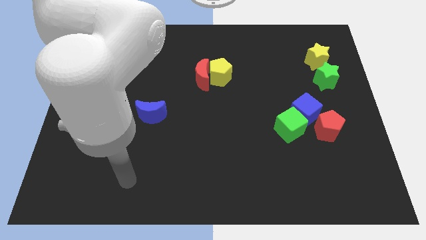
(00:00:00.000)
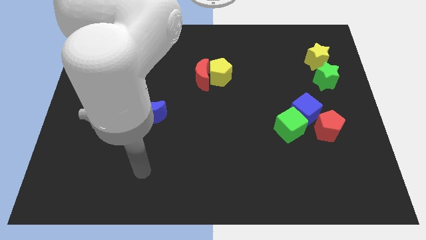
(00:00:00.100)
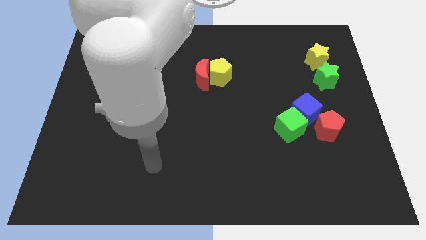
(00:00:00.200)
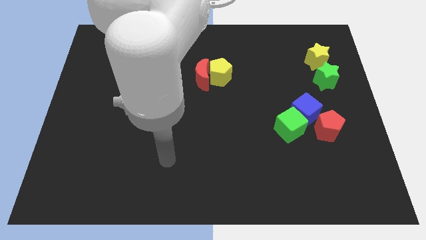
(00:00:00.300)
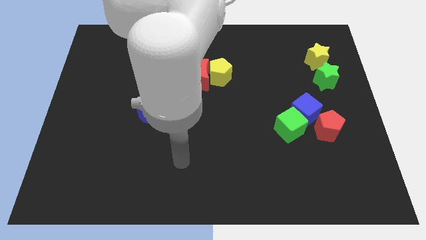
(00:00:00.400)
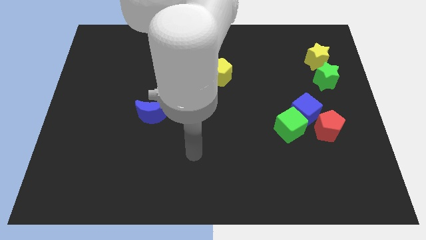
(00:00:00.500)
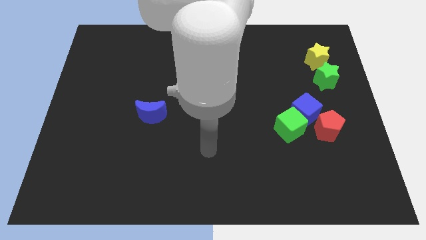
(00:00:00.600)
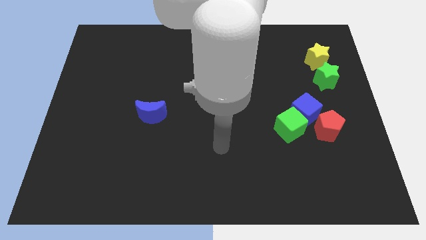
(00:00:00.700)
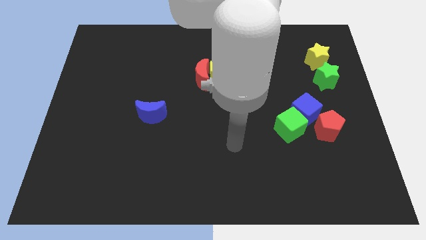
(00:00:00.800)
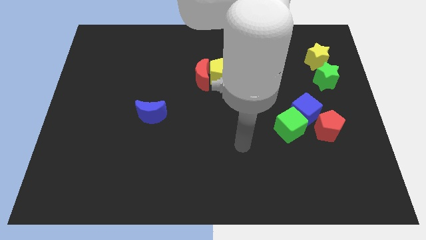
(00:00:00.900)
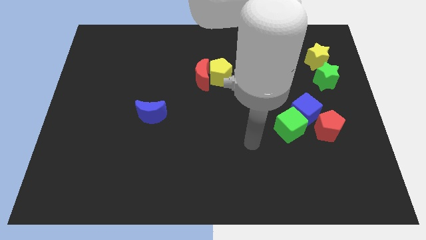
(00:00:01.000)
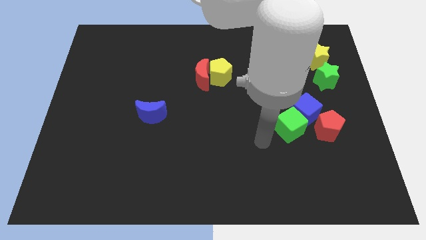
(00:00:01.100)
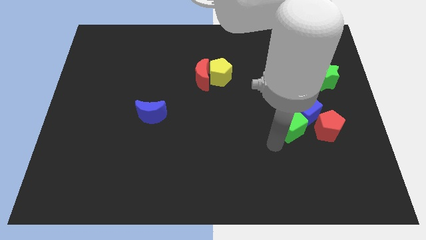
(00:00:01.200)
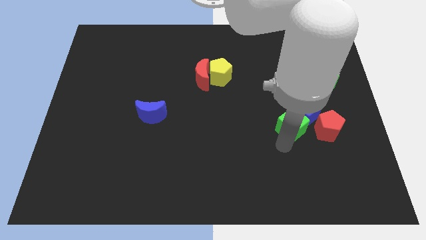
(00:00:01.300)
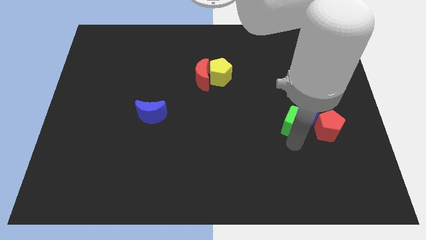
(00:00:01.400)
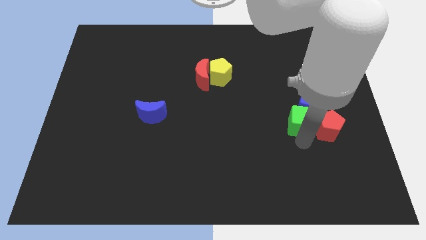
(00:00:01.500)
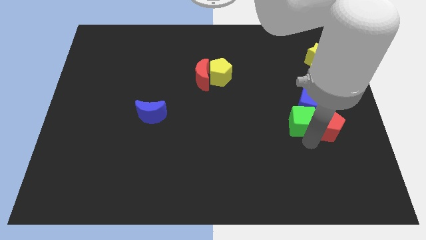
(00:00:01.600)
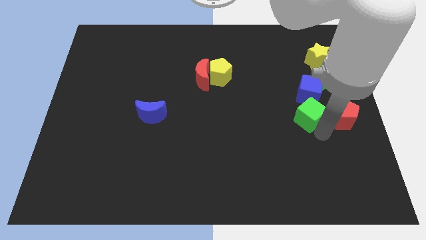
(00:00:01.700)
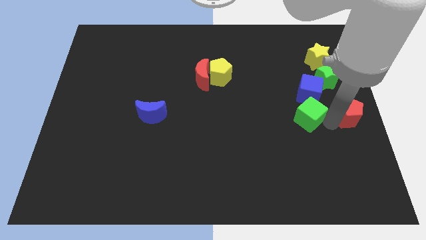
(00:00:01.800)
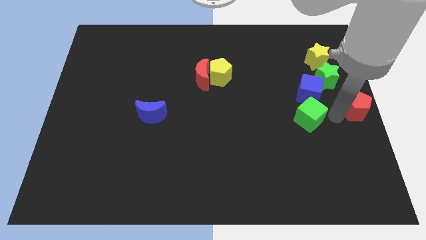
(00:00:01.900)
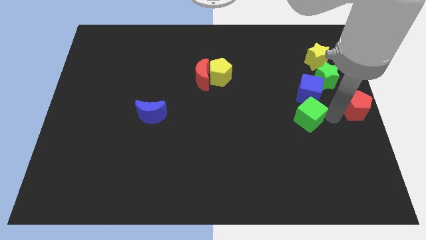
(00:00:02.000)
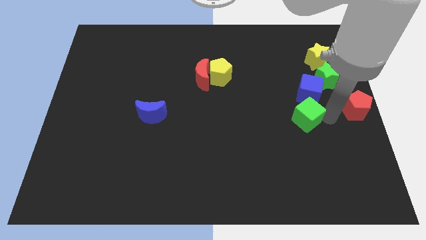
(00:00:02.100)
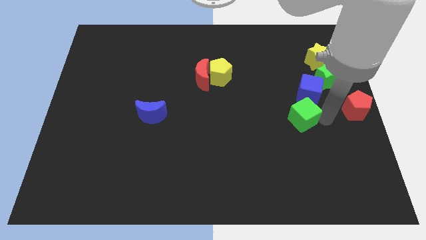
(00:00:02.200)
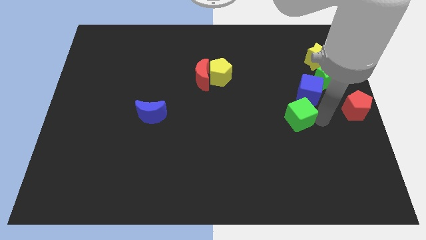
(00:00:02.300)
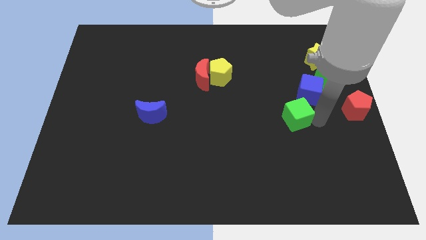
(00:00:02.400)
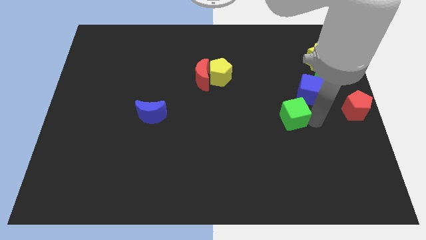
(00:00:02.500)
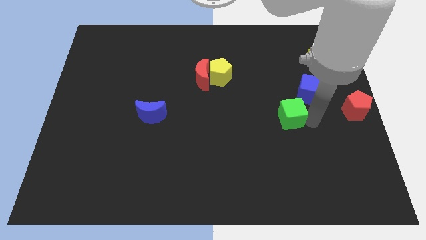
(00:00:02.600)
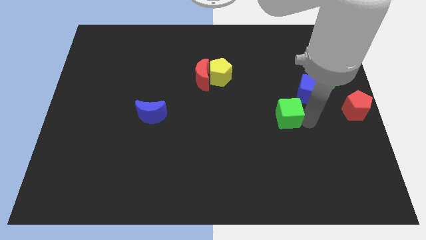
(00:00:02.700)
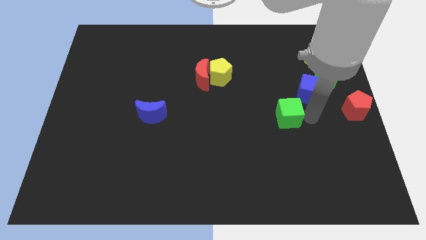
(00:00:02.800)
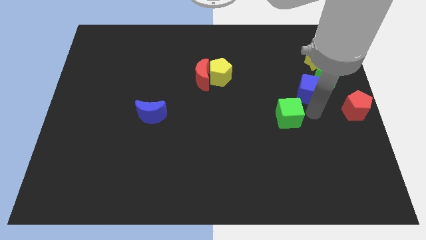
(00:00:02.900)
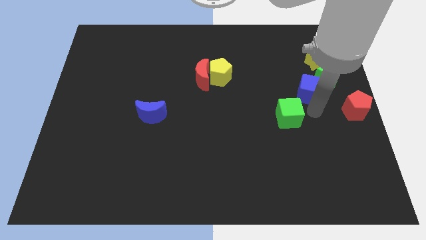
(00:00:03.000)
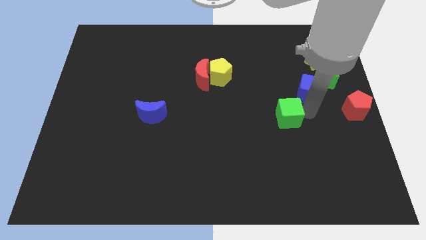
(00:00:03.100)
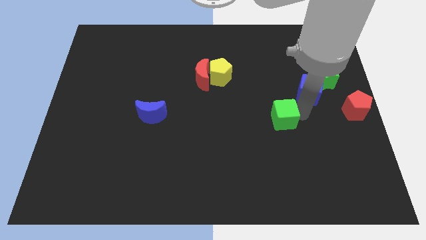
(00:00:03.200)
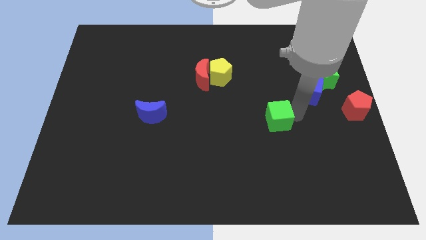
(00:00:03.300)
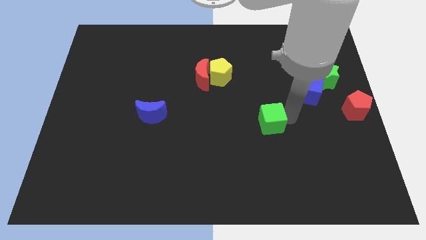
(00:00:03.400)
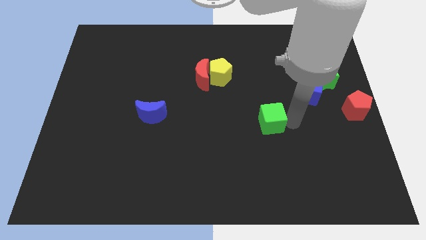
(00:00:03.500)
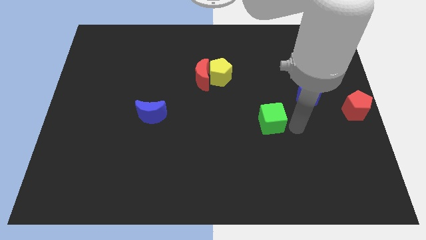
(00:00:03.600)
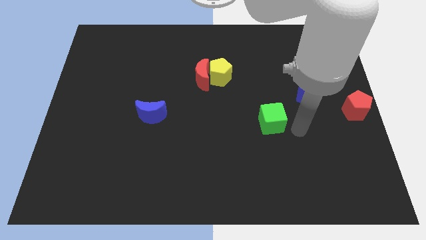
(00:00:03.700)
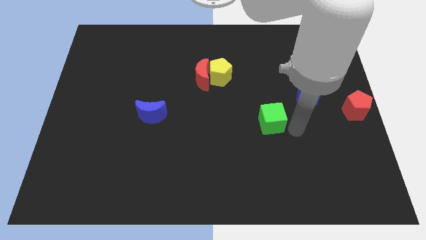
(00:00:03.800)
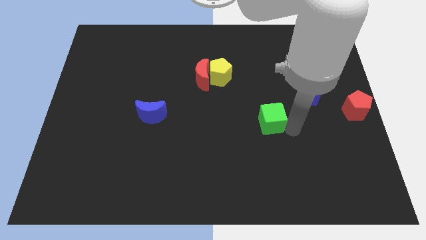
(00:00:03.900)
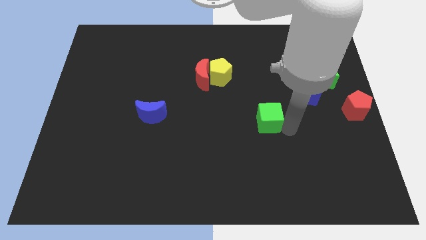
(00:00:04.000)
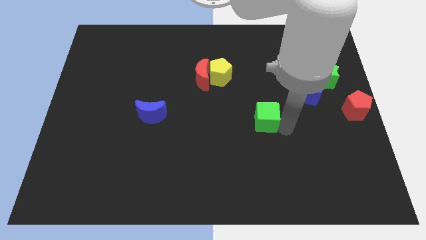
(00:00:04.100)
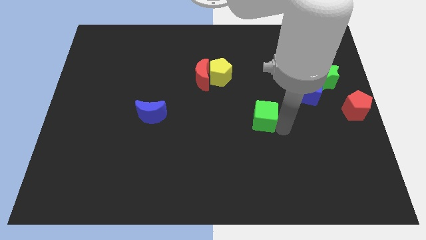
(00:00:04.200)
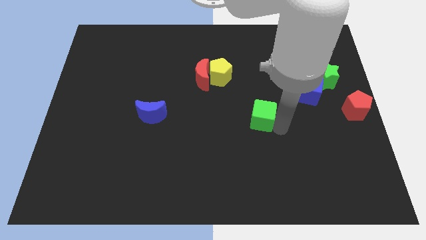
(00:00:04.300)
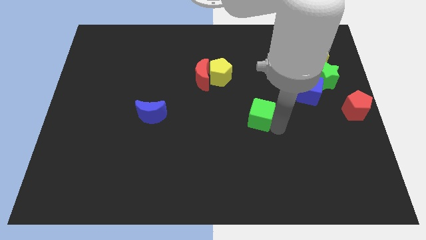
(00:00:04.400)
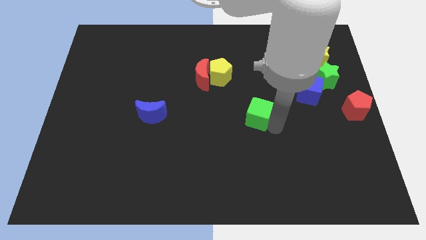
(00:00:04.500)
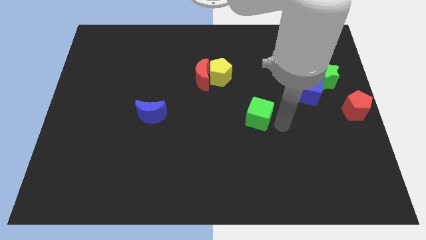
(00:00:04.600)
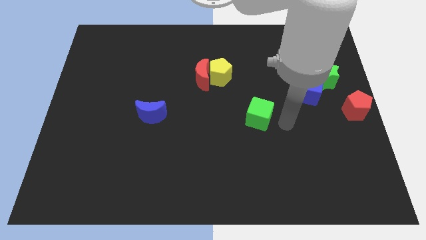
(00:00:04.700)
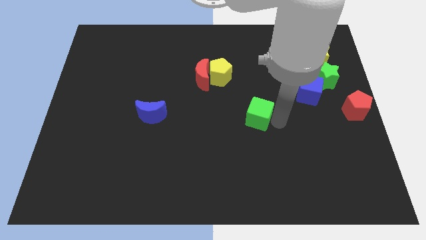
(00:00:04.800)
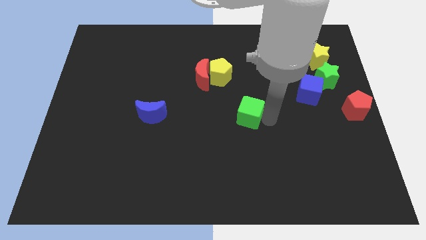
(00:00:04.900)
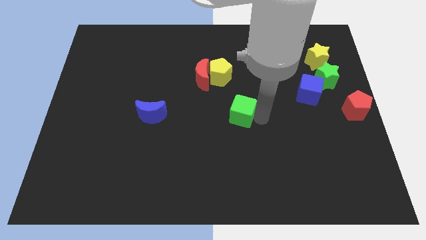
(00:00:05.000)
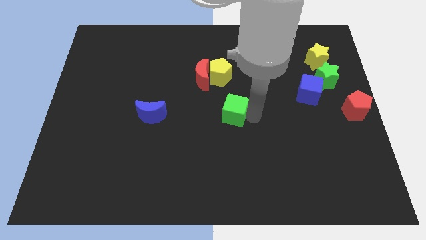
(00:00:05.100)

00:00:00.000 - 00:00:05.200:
move the green cube below the yellow pentagon

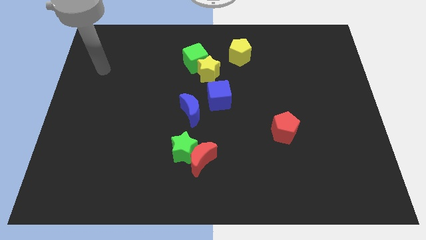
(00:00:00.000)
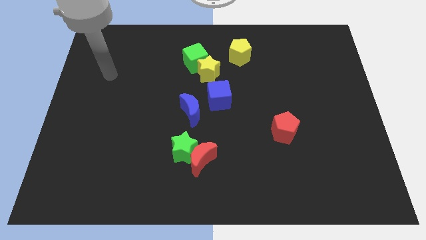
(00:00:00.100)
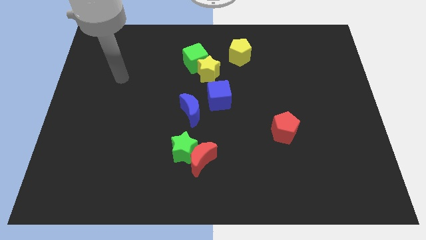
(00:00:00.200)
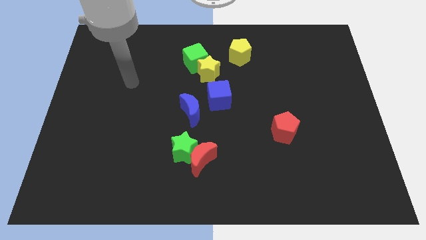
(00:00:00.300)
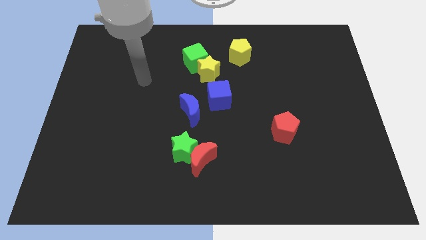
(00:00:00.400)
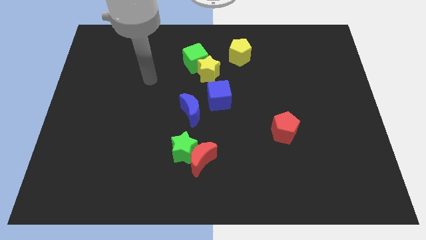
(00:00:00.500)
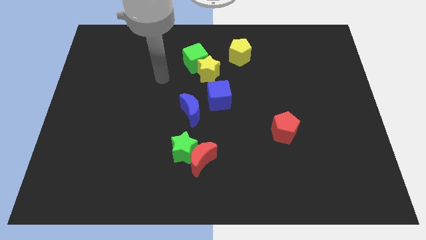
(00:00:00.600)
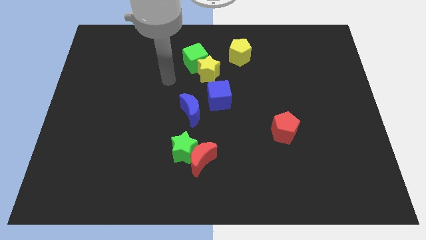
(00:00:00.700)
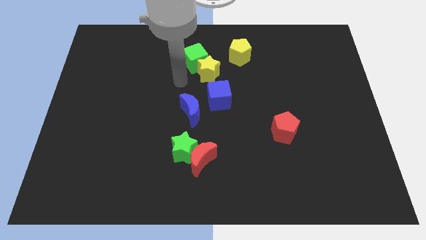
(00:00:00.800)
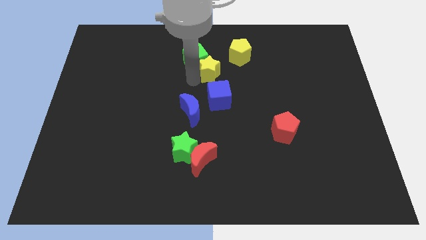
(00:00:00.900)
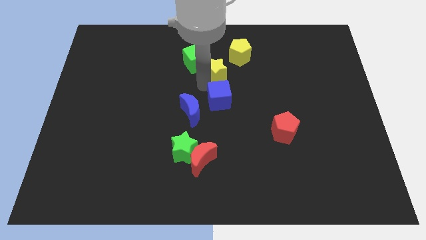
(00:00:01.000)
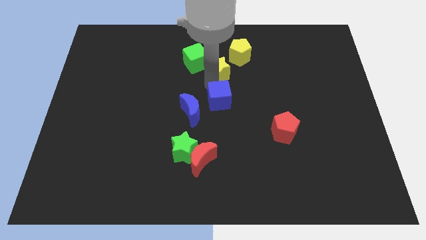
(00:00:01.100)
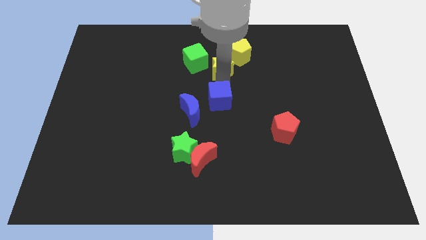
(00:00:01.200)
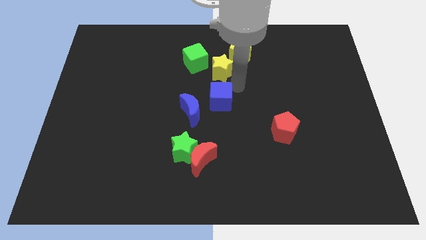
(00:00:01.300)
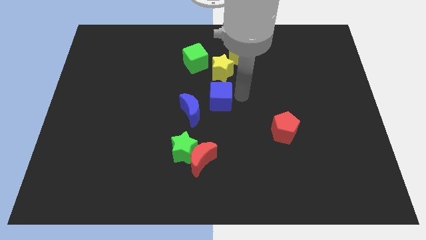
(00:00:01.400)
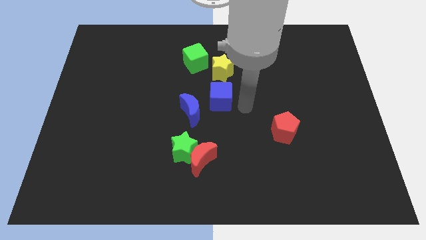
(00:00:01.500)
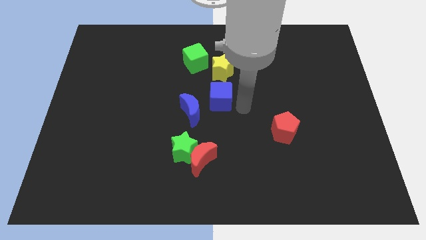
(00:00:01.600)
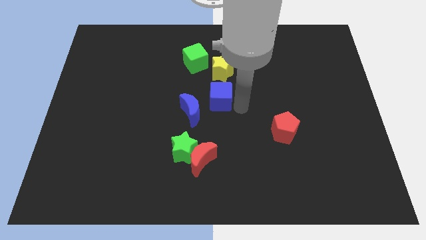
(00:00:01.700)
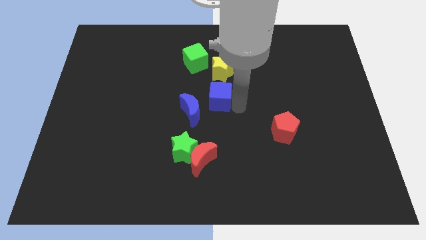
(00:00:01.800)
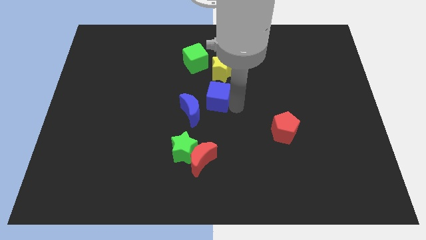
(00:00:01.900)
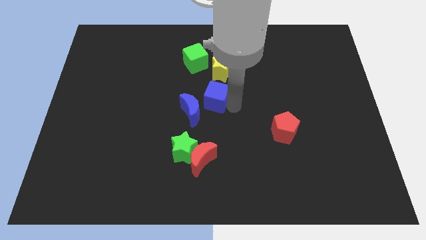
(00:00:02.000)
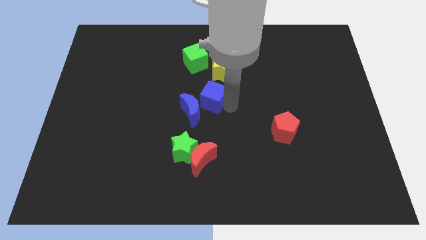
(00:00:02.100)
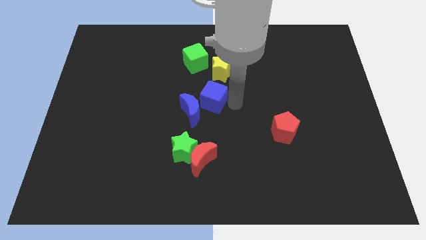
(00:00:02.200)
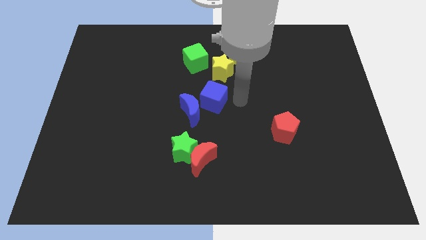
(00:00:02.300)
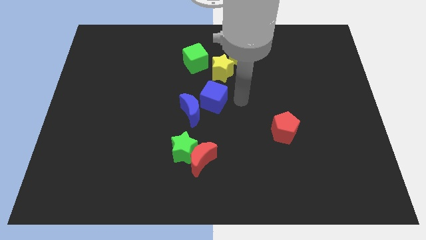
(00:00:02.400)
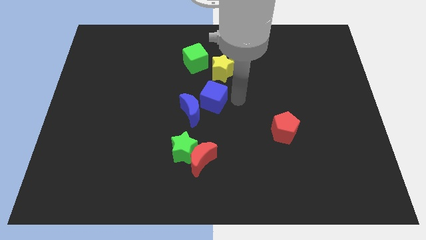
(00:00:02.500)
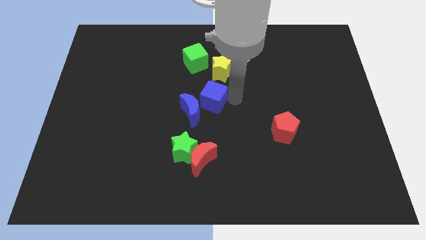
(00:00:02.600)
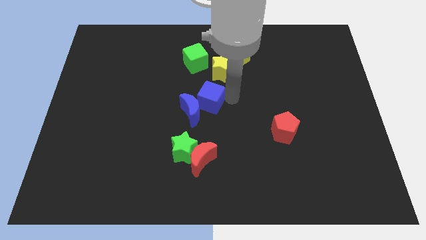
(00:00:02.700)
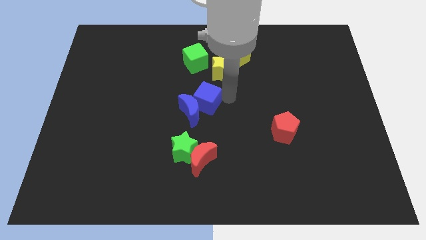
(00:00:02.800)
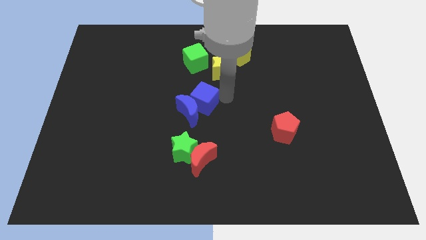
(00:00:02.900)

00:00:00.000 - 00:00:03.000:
slide the blue cube to the top side of the green star
